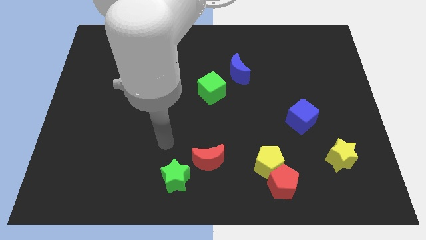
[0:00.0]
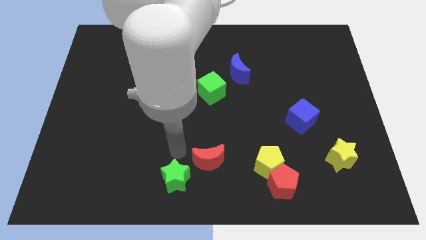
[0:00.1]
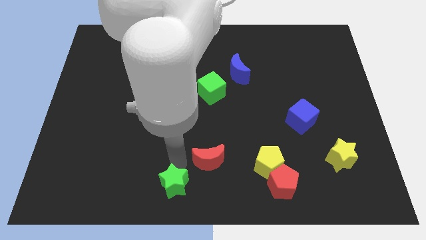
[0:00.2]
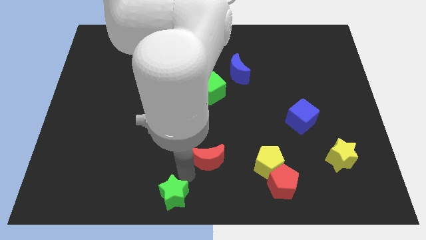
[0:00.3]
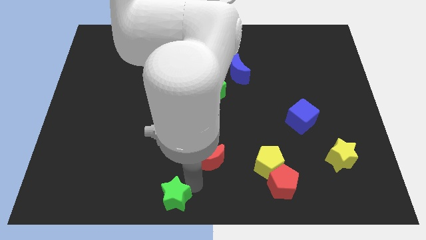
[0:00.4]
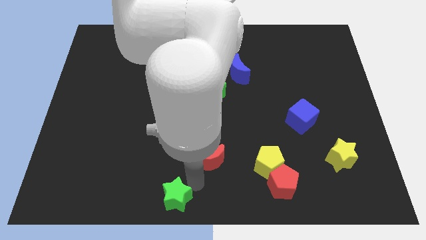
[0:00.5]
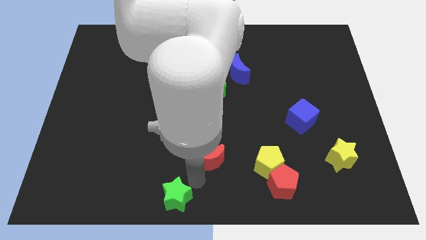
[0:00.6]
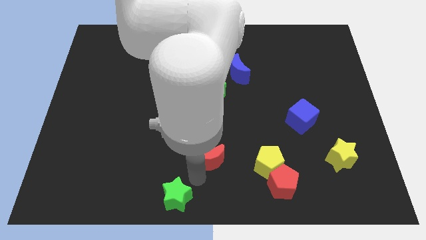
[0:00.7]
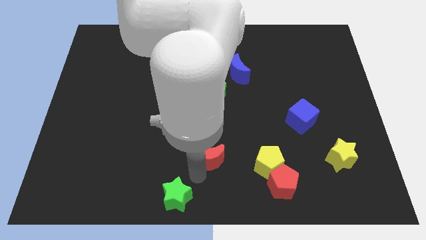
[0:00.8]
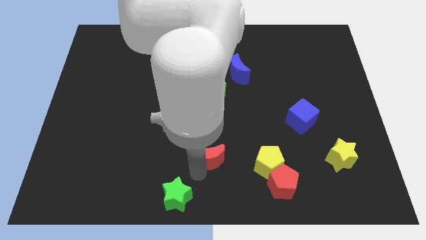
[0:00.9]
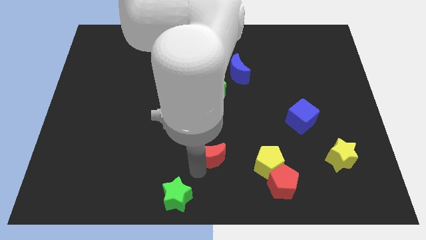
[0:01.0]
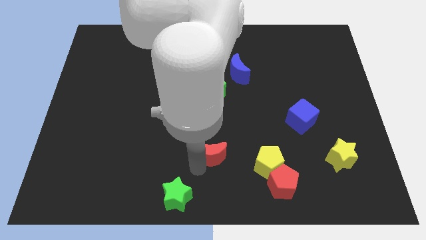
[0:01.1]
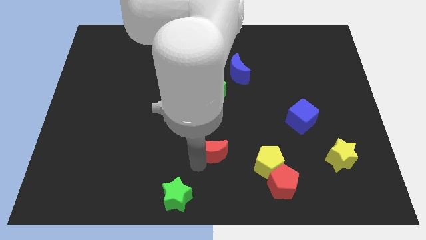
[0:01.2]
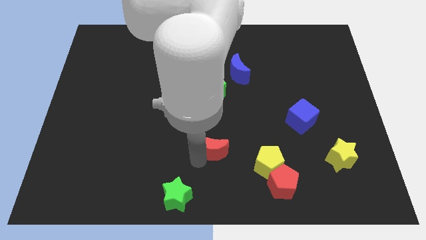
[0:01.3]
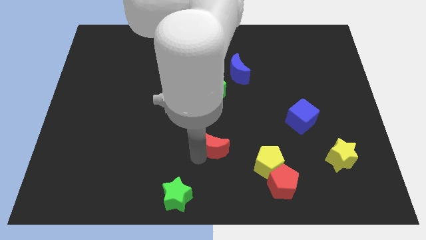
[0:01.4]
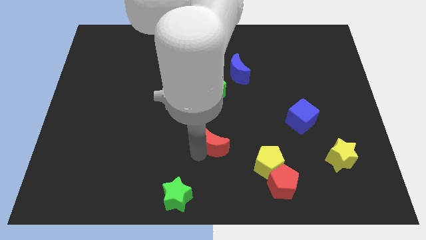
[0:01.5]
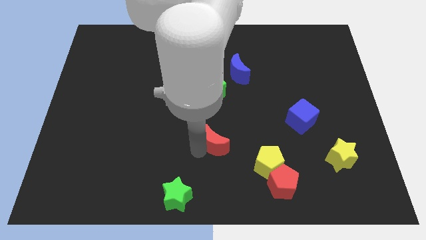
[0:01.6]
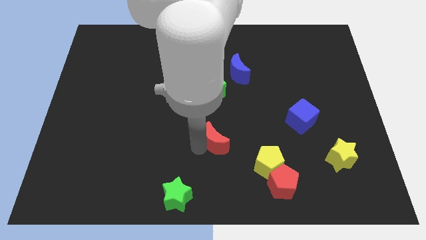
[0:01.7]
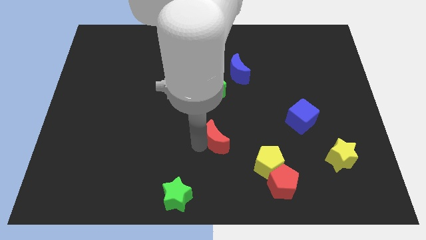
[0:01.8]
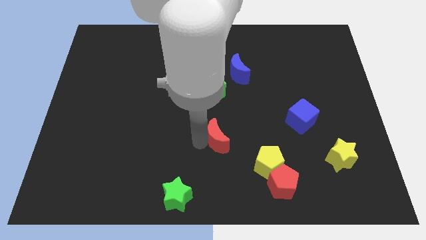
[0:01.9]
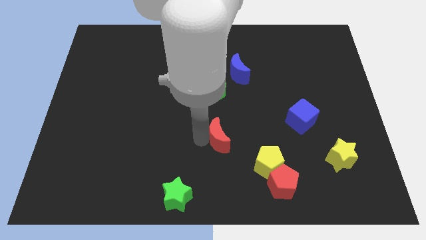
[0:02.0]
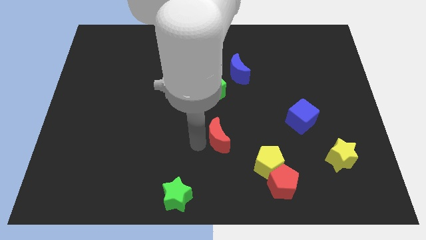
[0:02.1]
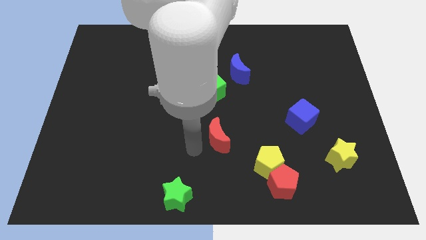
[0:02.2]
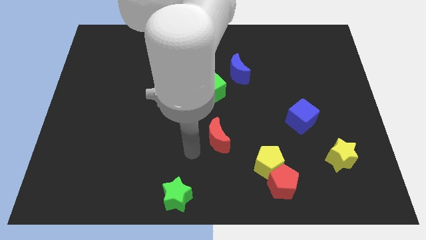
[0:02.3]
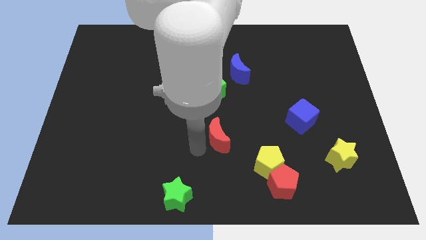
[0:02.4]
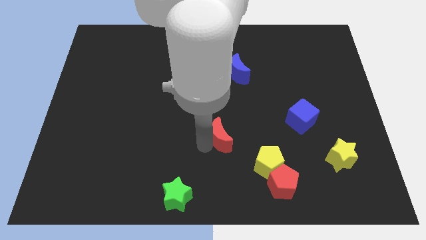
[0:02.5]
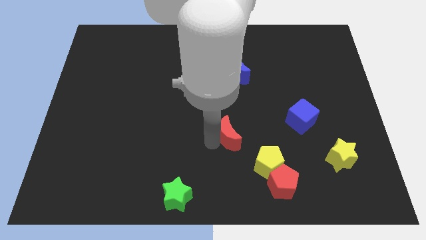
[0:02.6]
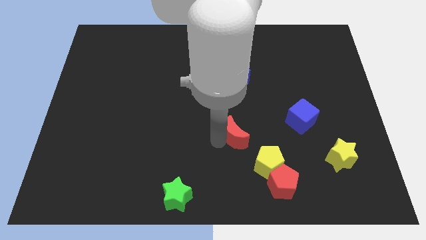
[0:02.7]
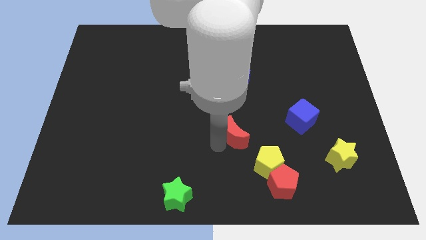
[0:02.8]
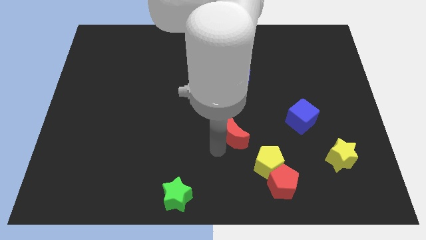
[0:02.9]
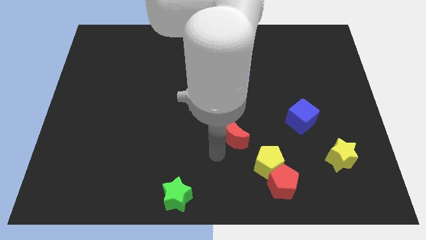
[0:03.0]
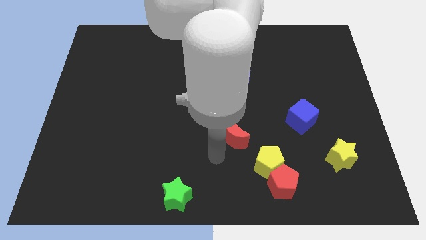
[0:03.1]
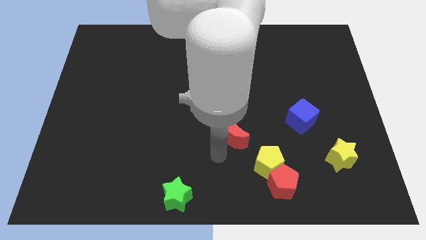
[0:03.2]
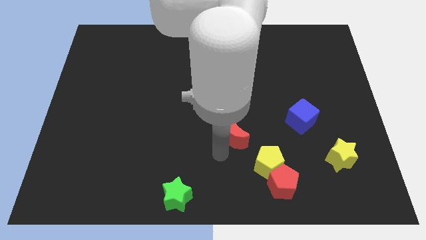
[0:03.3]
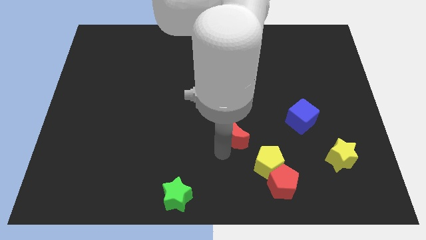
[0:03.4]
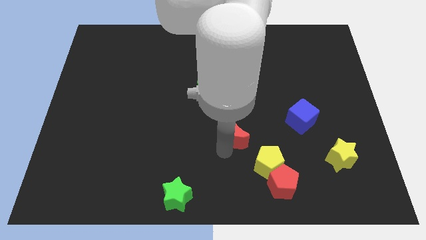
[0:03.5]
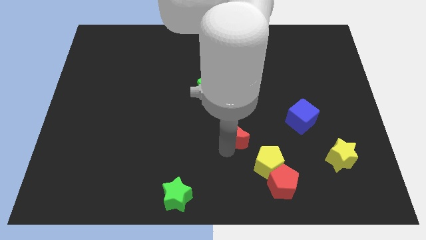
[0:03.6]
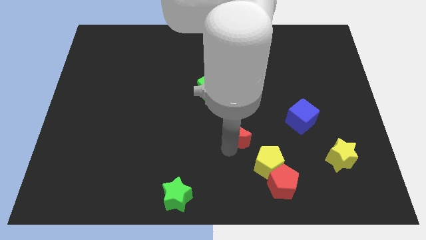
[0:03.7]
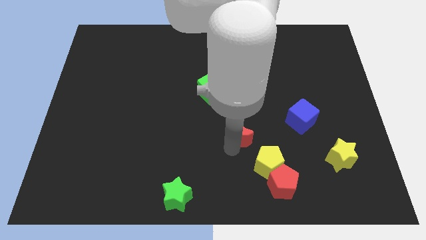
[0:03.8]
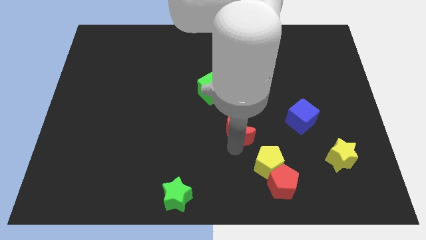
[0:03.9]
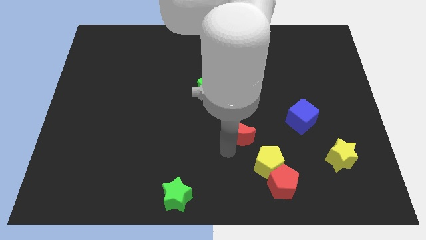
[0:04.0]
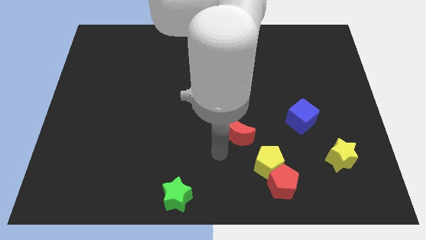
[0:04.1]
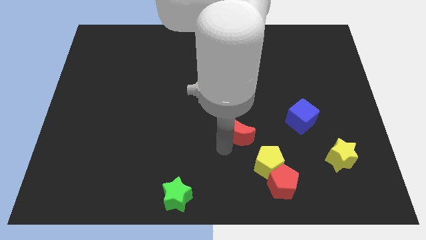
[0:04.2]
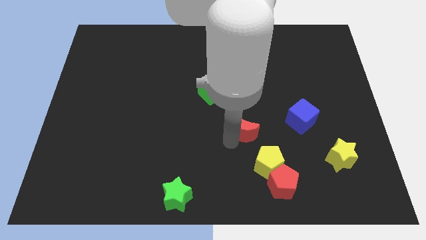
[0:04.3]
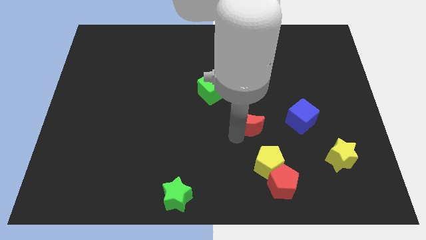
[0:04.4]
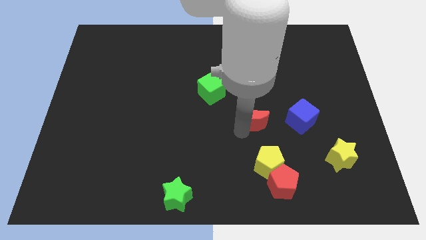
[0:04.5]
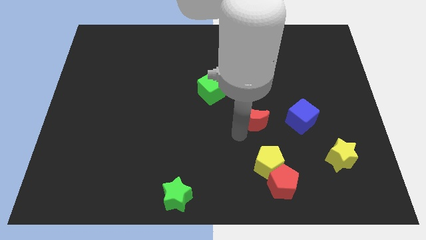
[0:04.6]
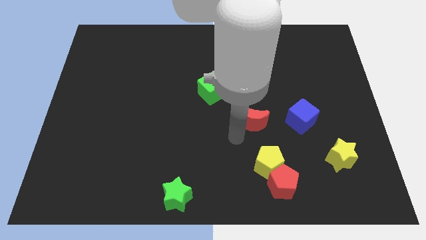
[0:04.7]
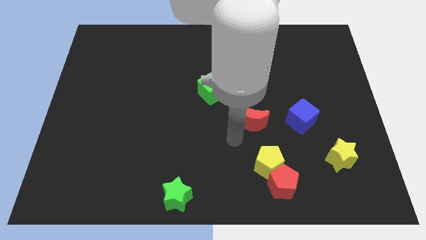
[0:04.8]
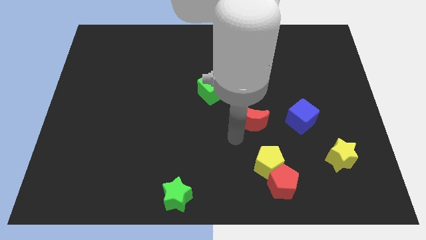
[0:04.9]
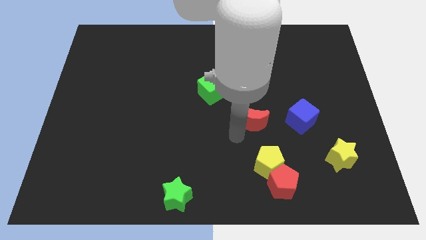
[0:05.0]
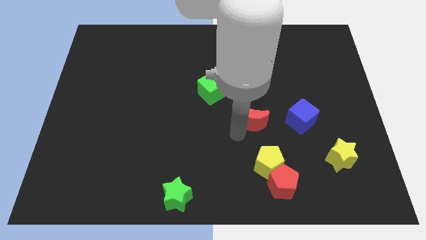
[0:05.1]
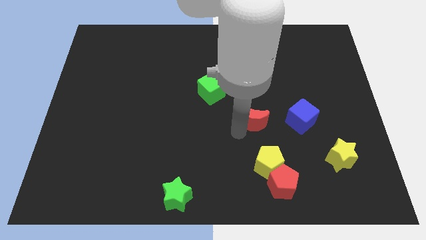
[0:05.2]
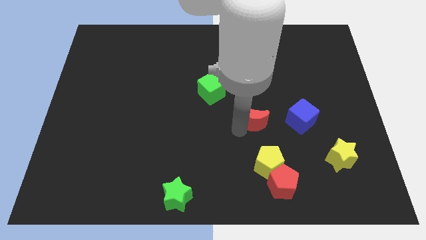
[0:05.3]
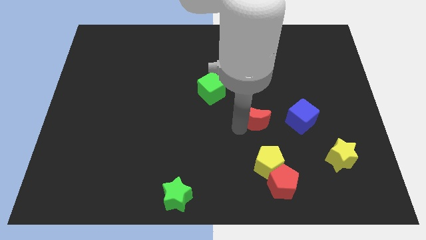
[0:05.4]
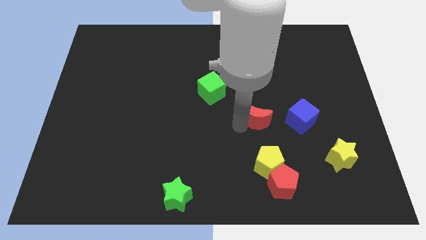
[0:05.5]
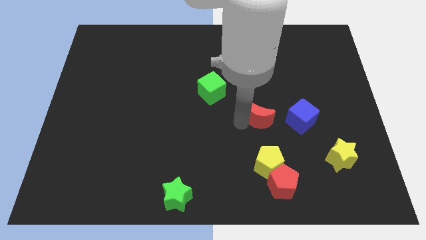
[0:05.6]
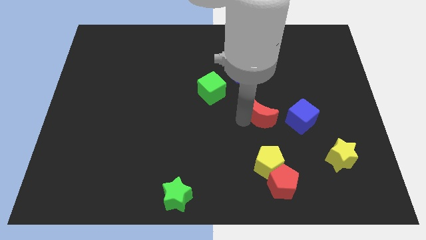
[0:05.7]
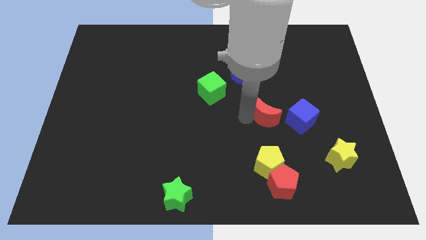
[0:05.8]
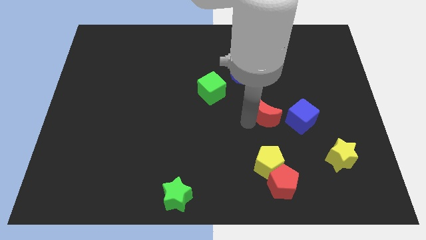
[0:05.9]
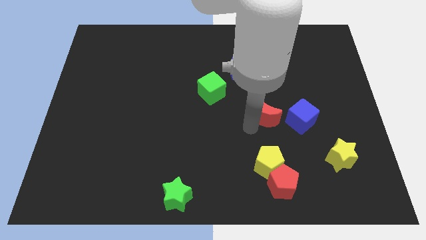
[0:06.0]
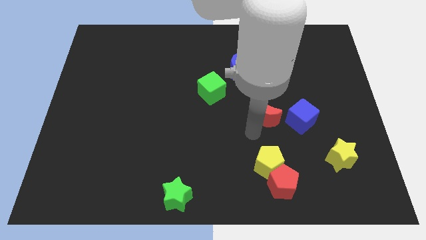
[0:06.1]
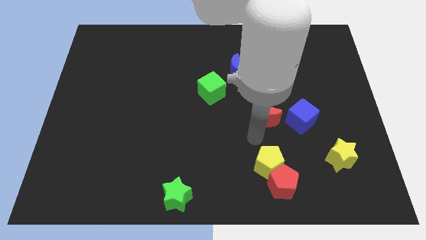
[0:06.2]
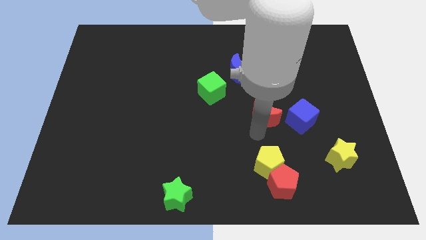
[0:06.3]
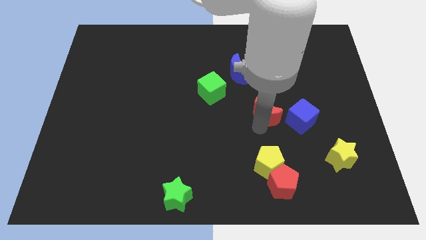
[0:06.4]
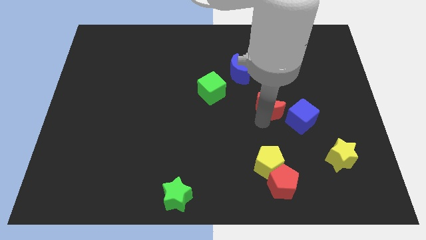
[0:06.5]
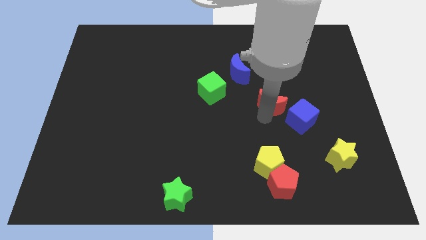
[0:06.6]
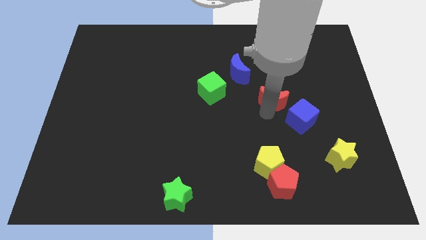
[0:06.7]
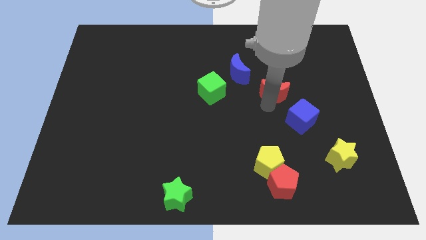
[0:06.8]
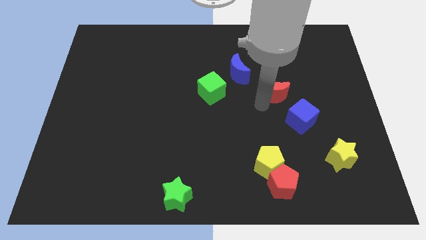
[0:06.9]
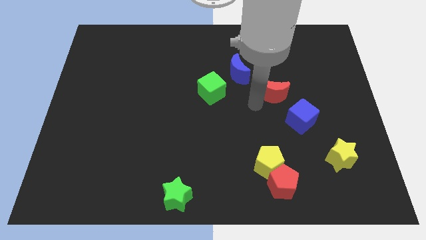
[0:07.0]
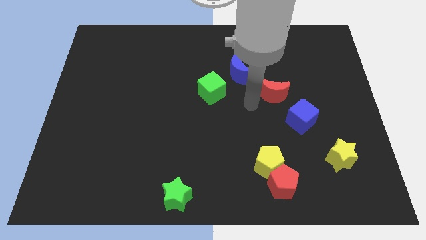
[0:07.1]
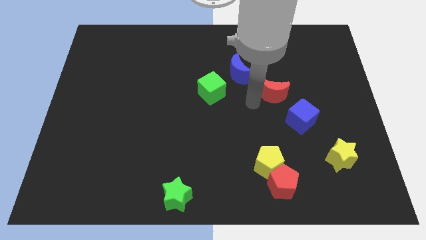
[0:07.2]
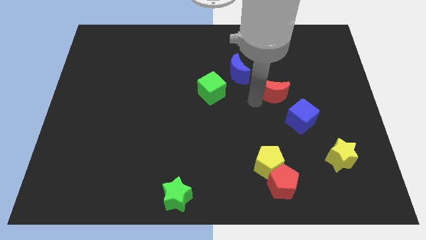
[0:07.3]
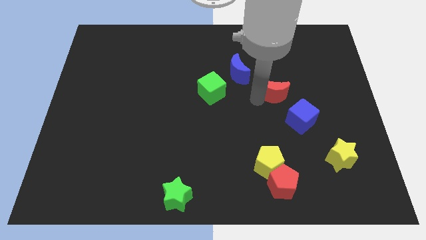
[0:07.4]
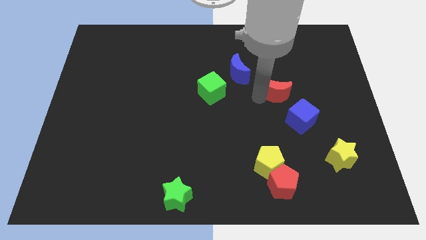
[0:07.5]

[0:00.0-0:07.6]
slide the red moon to the top of the blue cube

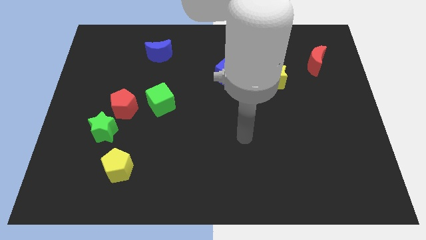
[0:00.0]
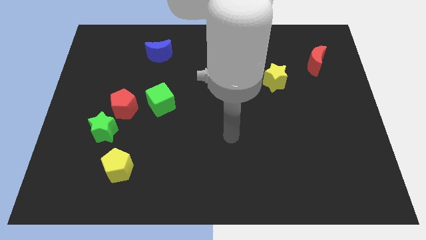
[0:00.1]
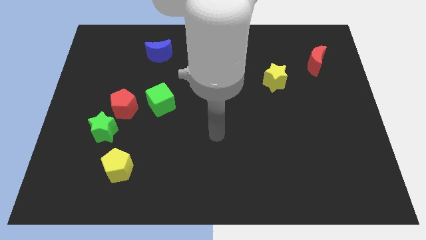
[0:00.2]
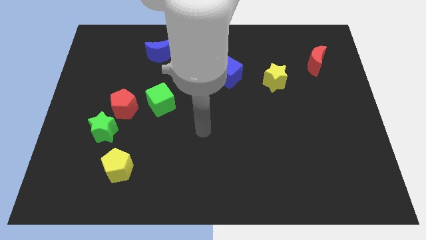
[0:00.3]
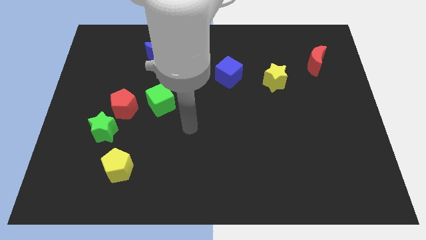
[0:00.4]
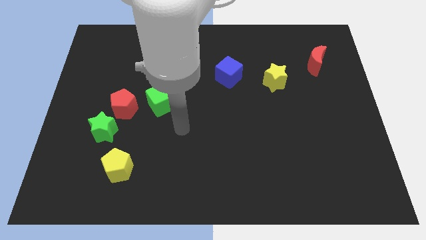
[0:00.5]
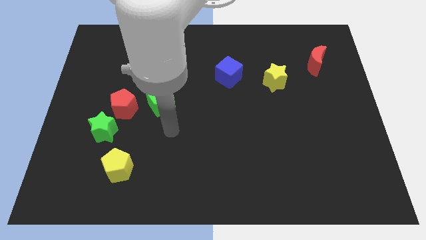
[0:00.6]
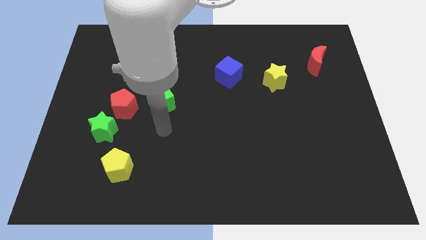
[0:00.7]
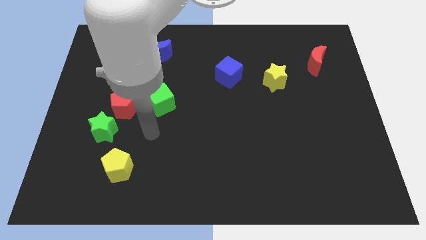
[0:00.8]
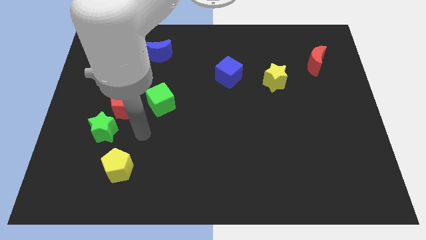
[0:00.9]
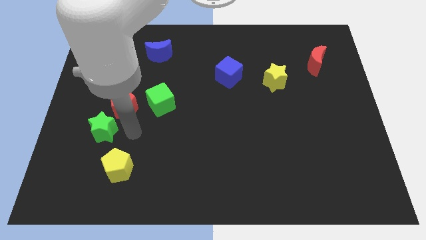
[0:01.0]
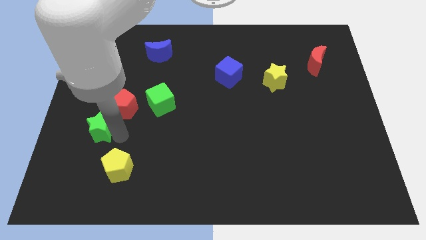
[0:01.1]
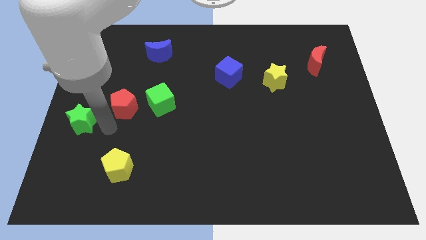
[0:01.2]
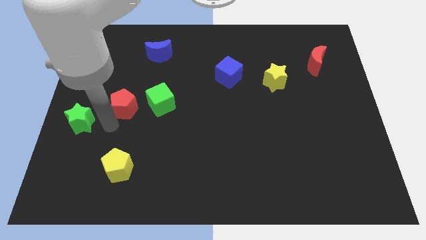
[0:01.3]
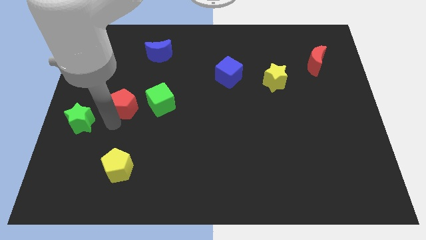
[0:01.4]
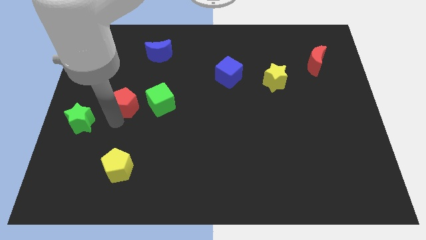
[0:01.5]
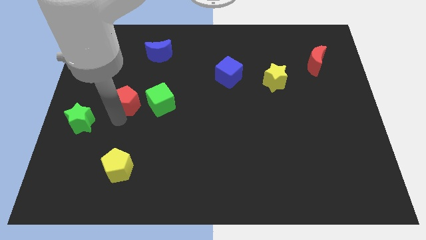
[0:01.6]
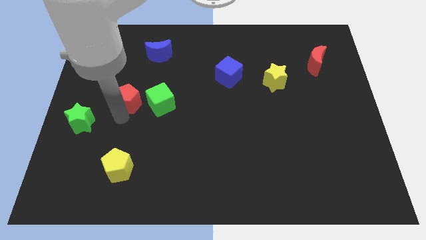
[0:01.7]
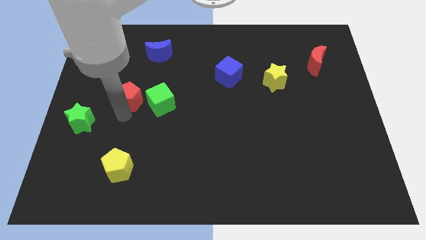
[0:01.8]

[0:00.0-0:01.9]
move the red pentagon to the top left of the green cube
